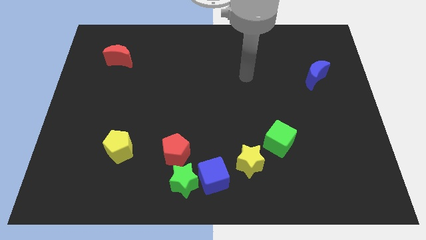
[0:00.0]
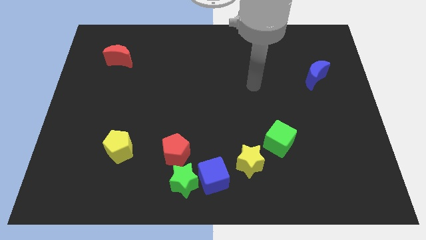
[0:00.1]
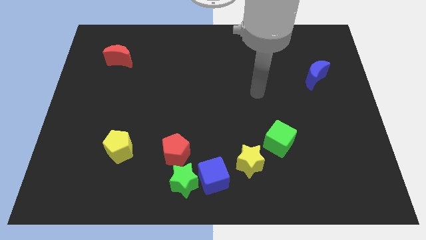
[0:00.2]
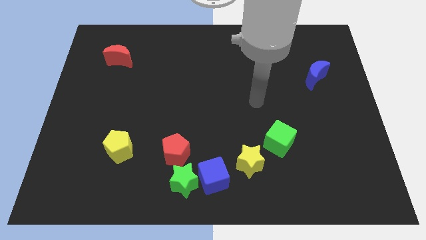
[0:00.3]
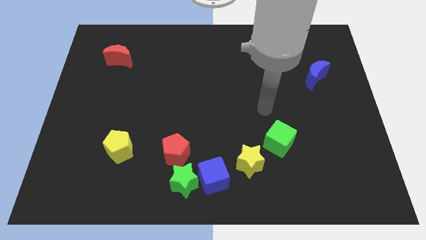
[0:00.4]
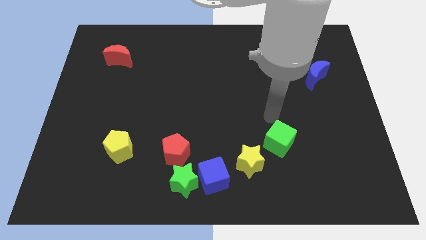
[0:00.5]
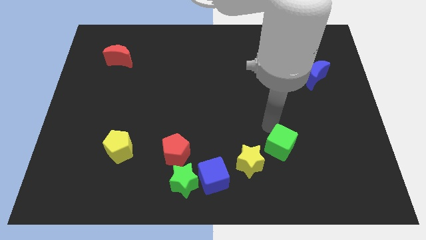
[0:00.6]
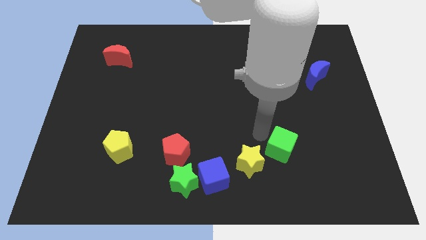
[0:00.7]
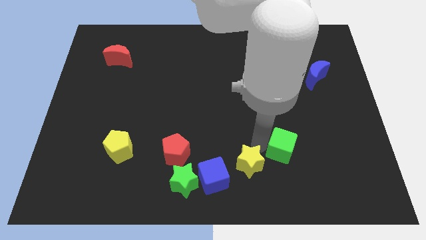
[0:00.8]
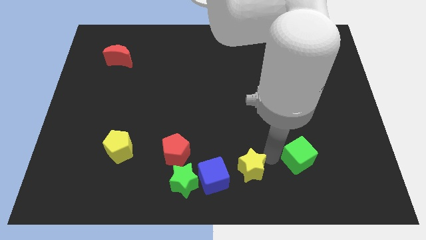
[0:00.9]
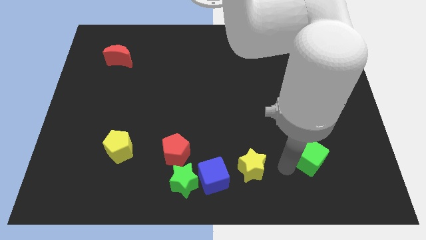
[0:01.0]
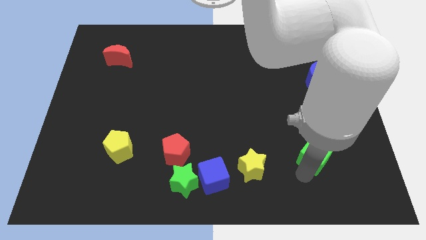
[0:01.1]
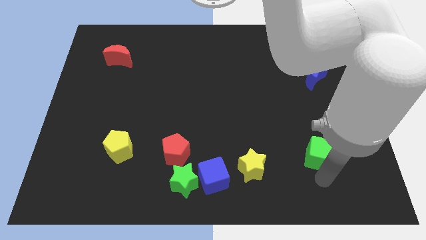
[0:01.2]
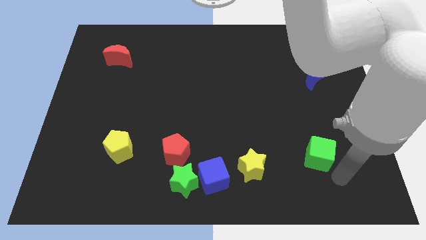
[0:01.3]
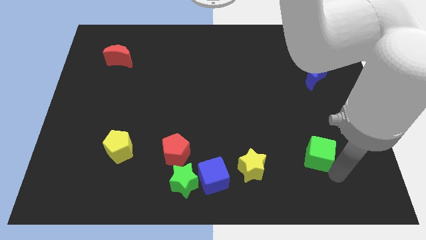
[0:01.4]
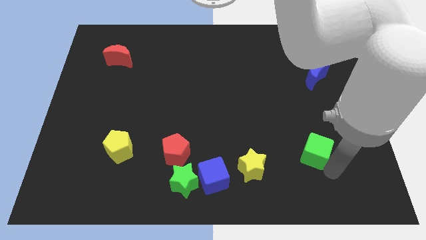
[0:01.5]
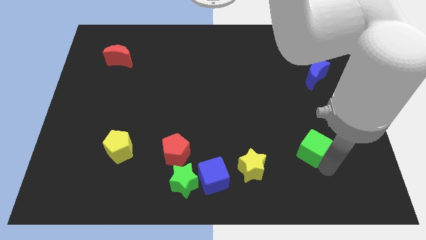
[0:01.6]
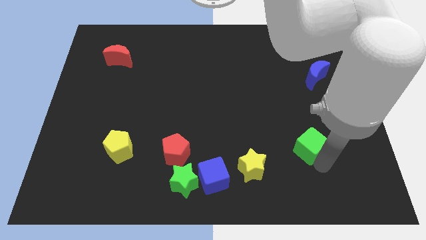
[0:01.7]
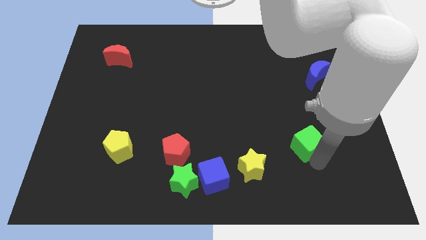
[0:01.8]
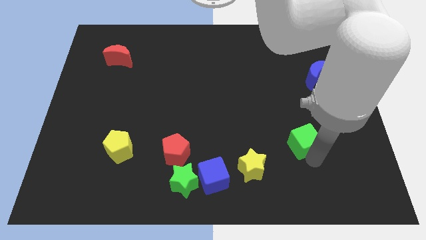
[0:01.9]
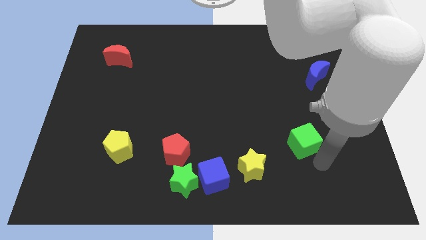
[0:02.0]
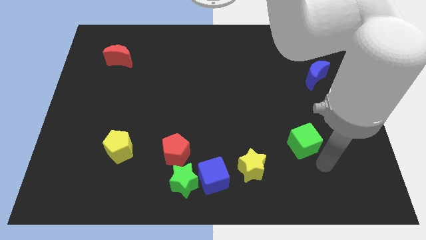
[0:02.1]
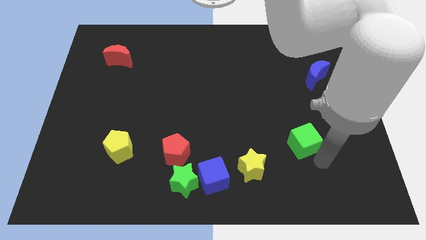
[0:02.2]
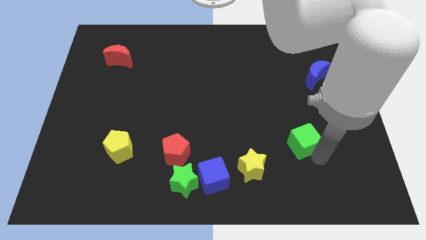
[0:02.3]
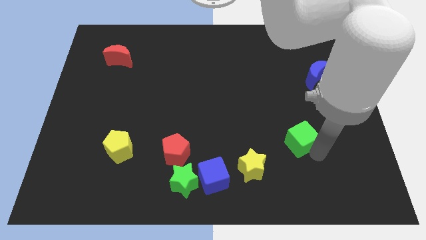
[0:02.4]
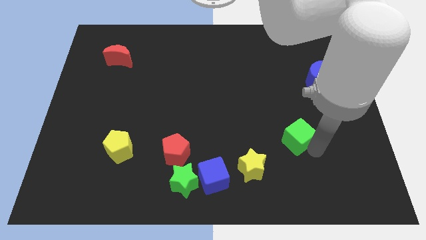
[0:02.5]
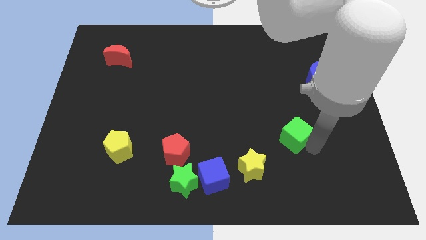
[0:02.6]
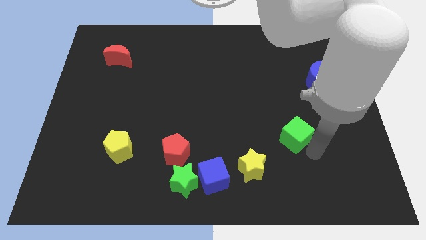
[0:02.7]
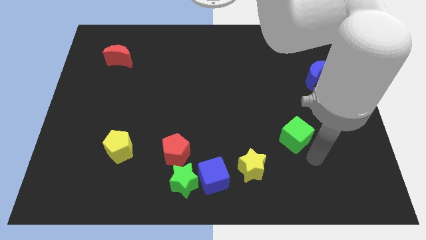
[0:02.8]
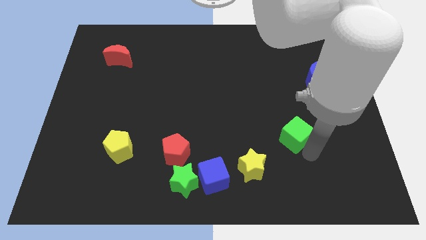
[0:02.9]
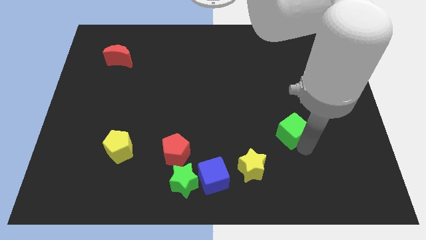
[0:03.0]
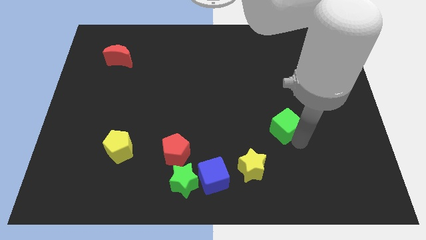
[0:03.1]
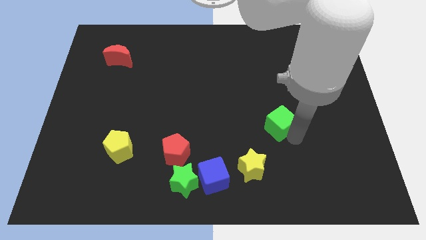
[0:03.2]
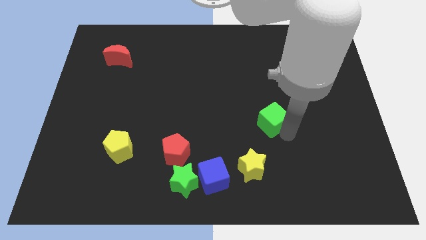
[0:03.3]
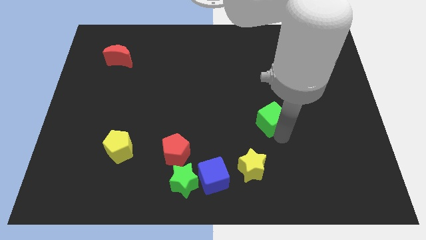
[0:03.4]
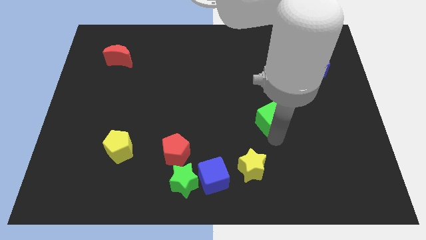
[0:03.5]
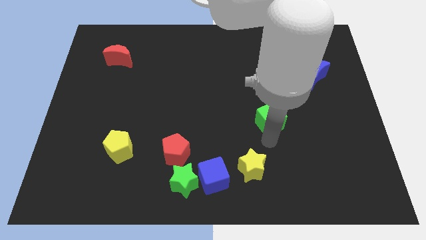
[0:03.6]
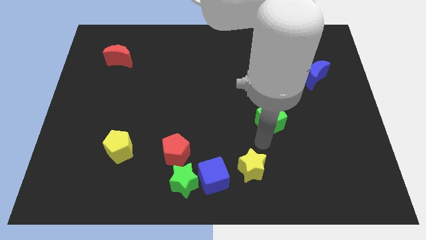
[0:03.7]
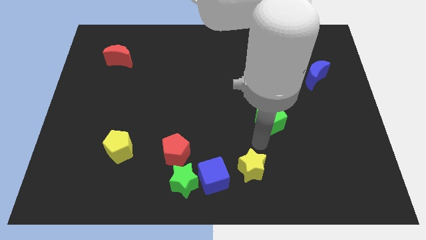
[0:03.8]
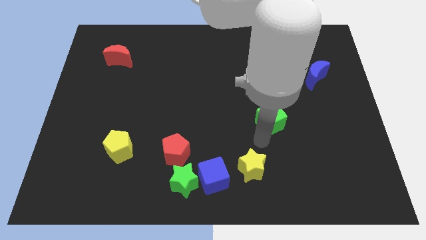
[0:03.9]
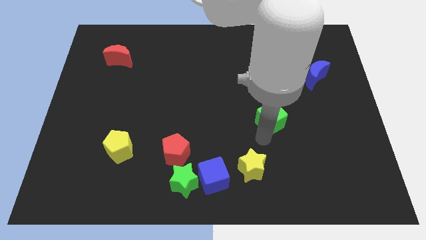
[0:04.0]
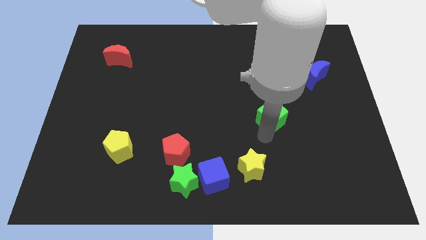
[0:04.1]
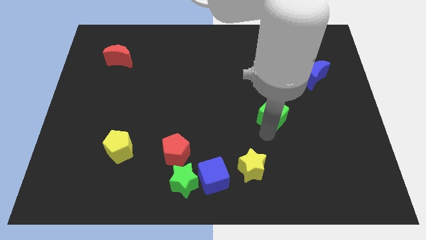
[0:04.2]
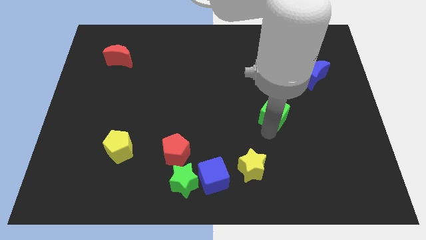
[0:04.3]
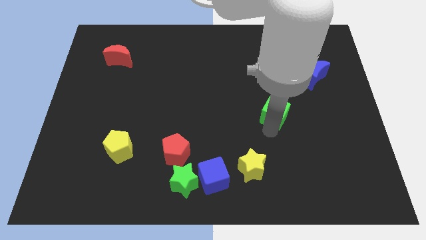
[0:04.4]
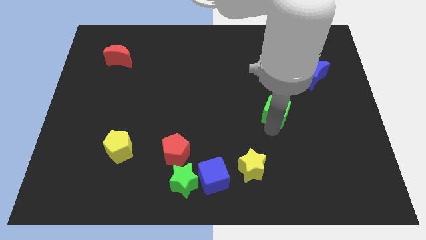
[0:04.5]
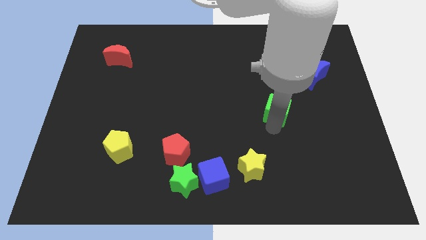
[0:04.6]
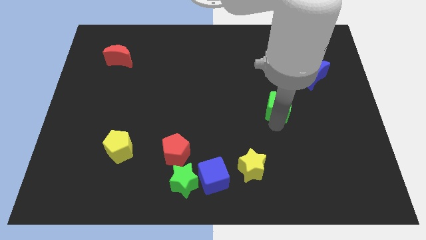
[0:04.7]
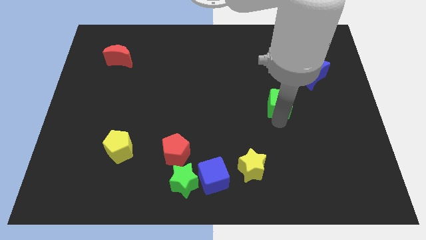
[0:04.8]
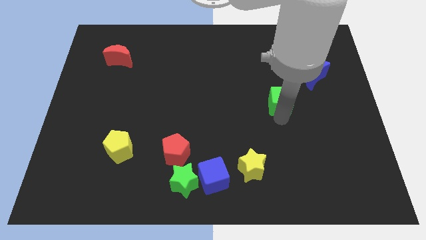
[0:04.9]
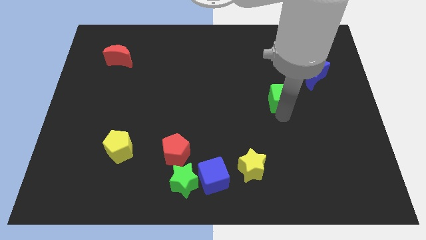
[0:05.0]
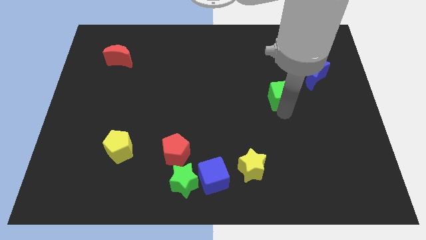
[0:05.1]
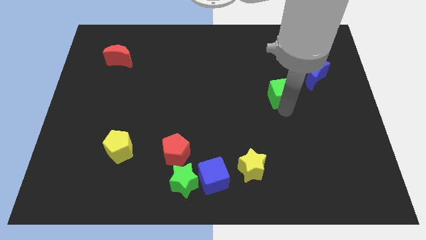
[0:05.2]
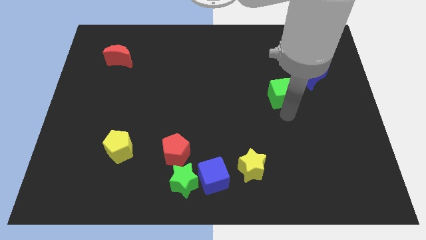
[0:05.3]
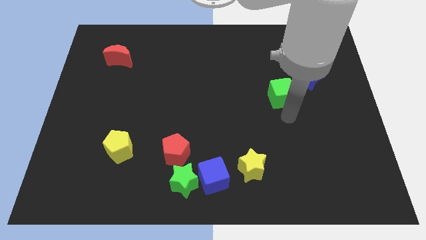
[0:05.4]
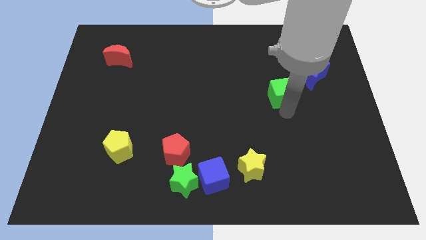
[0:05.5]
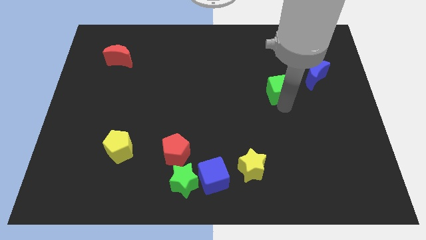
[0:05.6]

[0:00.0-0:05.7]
move the green cube to the left of the blue moon

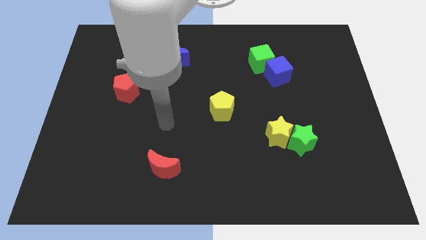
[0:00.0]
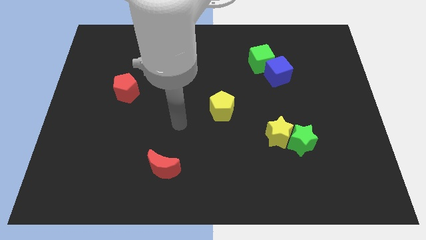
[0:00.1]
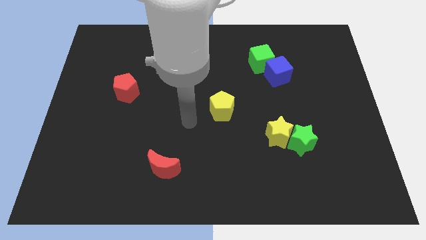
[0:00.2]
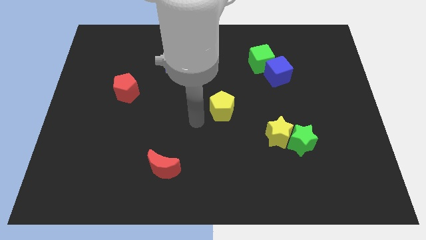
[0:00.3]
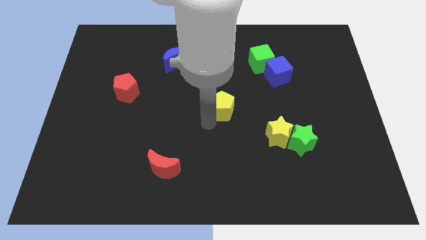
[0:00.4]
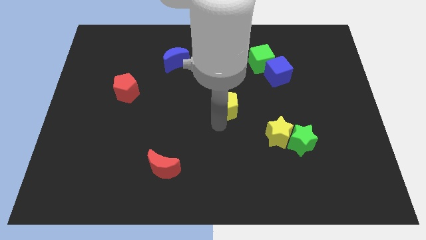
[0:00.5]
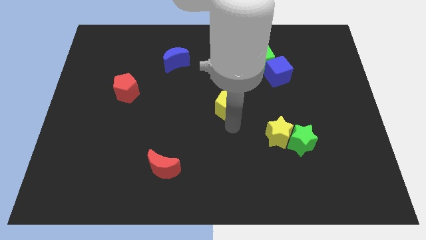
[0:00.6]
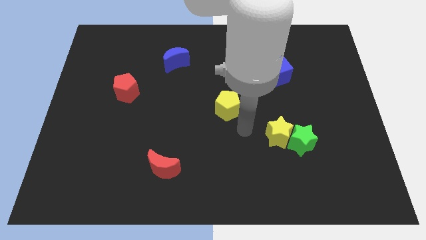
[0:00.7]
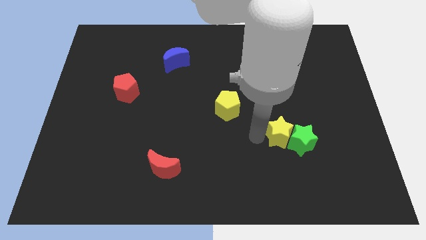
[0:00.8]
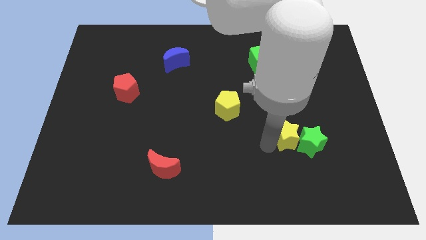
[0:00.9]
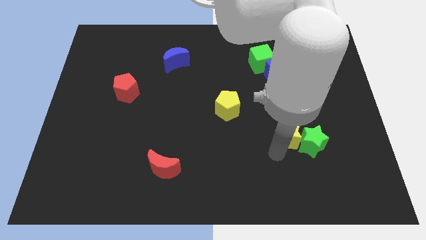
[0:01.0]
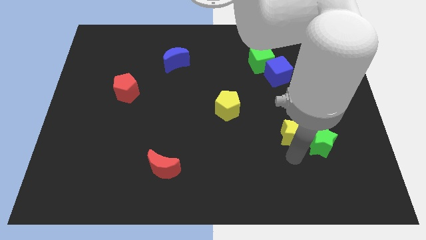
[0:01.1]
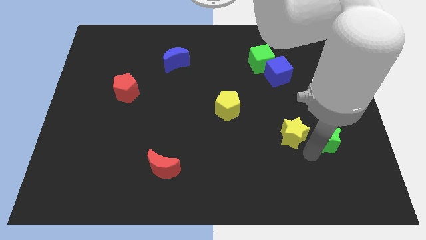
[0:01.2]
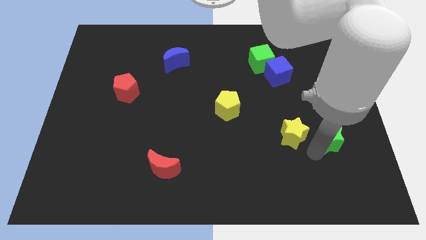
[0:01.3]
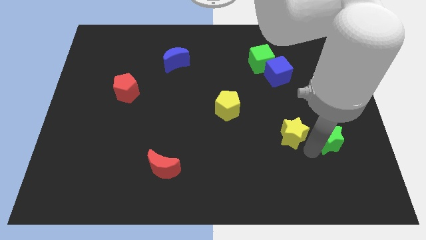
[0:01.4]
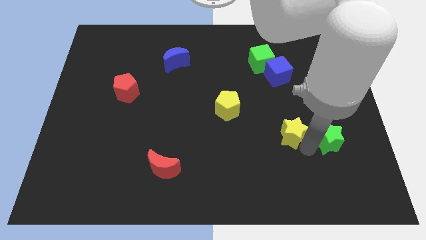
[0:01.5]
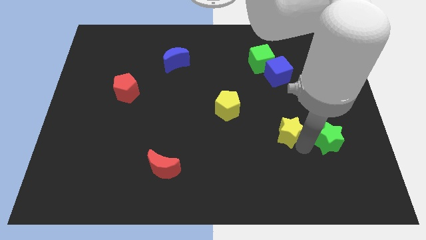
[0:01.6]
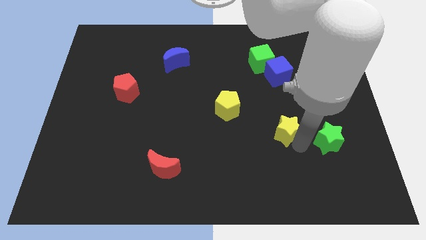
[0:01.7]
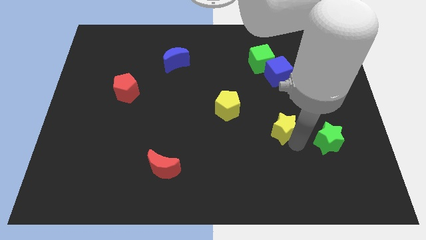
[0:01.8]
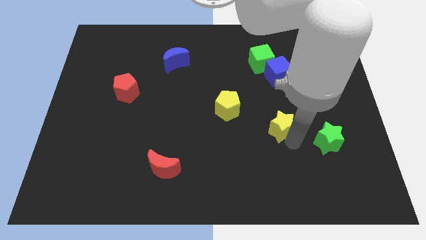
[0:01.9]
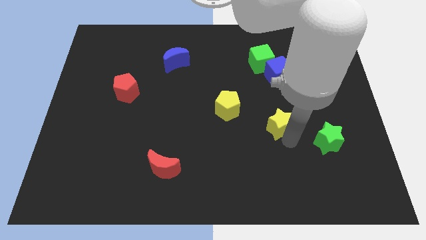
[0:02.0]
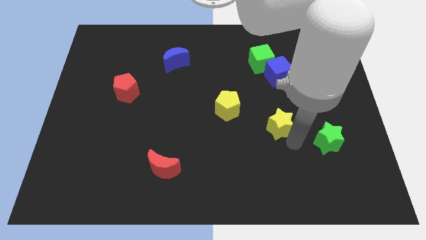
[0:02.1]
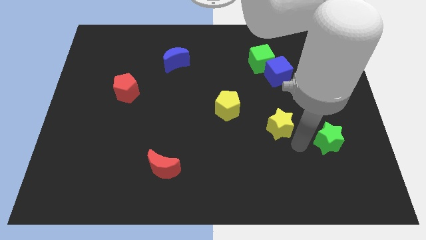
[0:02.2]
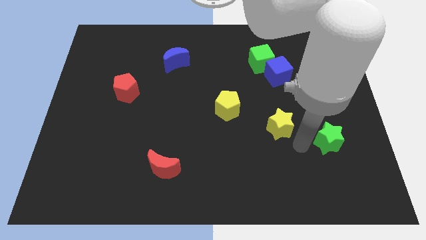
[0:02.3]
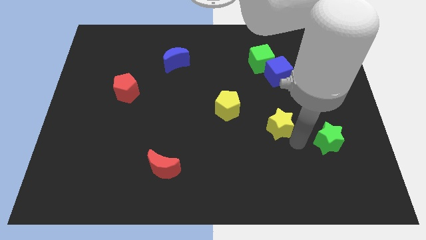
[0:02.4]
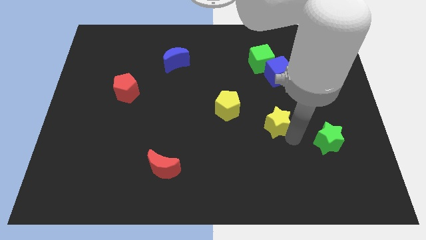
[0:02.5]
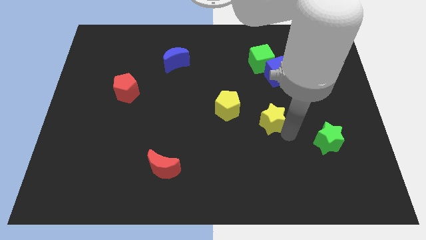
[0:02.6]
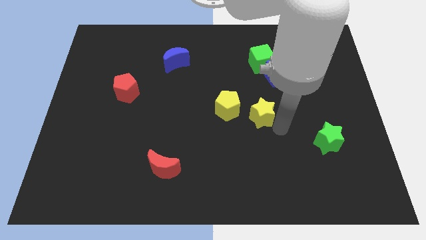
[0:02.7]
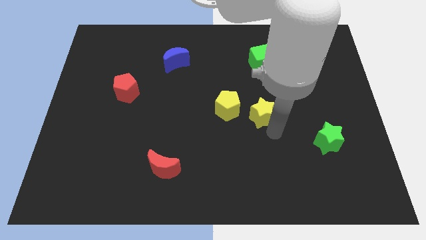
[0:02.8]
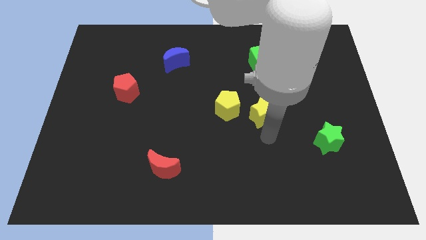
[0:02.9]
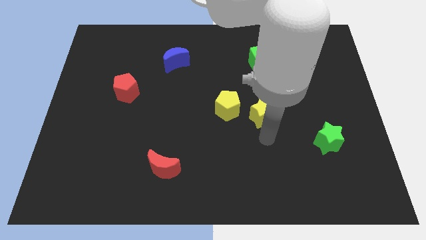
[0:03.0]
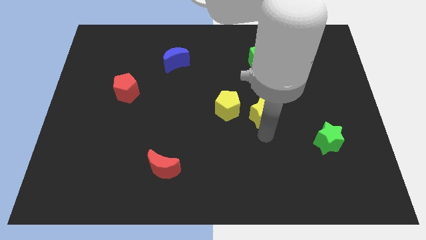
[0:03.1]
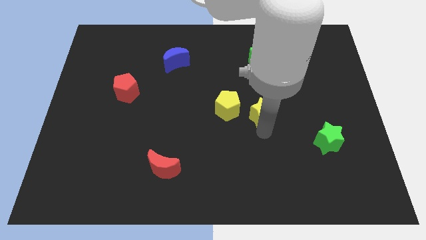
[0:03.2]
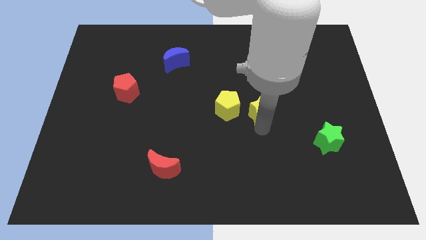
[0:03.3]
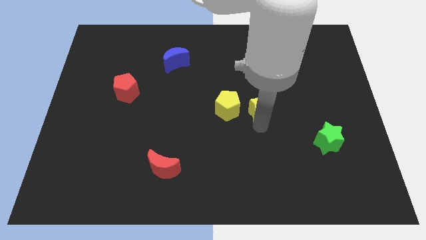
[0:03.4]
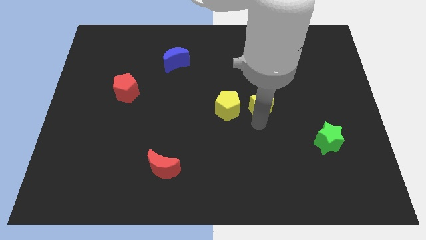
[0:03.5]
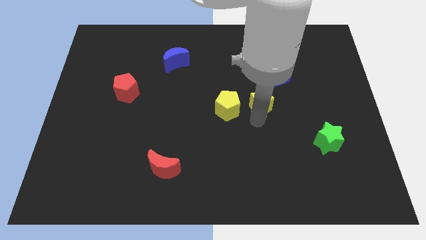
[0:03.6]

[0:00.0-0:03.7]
push the yellow star to the bottom left side of the blue cube
